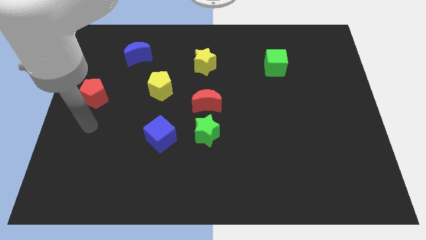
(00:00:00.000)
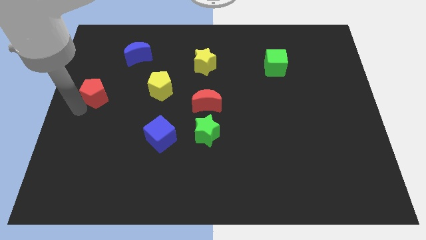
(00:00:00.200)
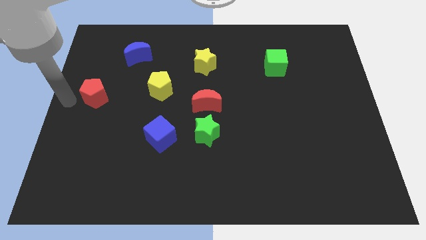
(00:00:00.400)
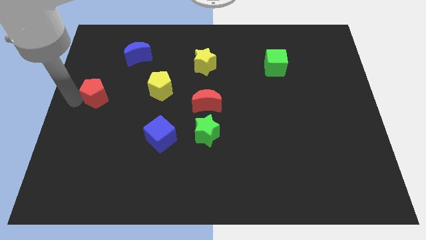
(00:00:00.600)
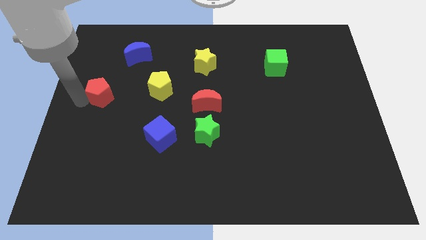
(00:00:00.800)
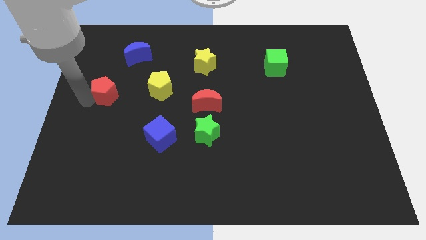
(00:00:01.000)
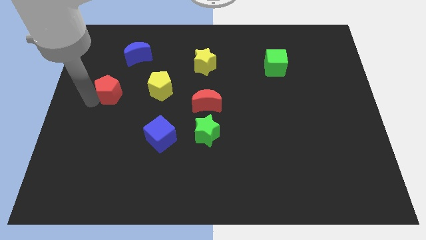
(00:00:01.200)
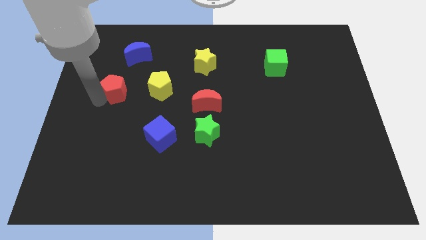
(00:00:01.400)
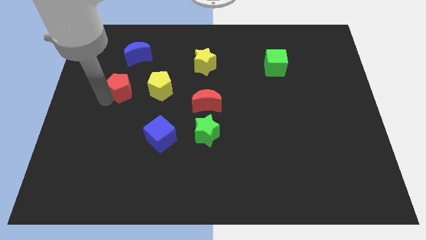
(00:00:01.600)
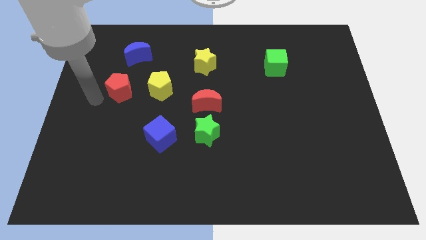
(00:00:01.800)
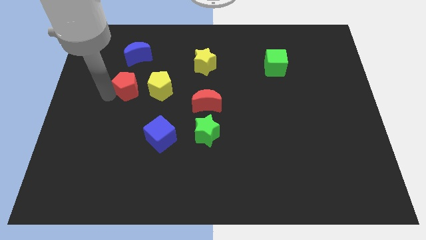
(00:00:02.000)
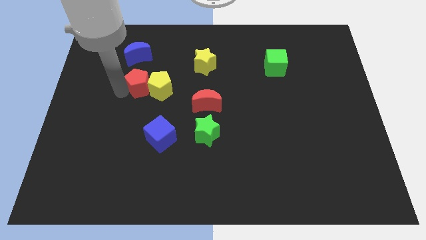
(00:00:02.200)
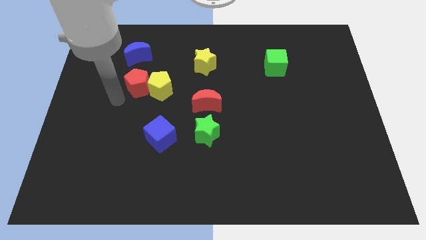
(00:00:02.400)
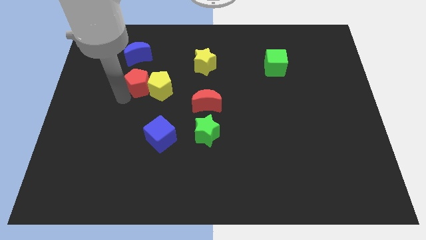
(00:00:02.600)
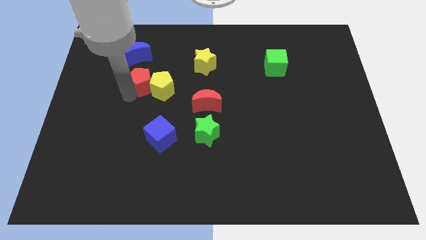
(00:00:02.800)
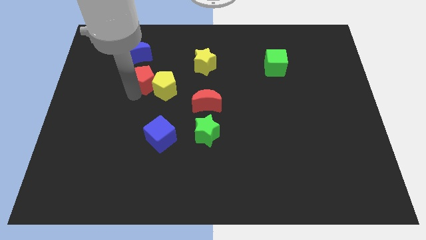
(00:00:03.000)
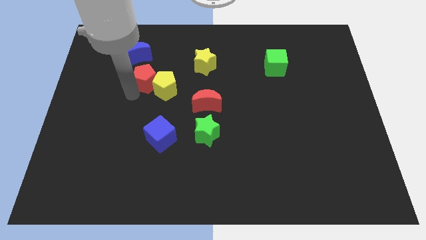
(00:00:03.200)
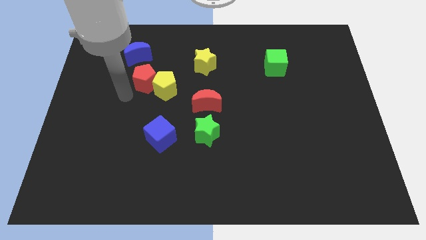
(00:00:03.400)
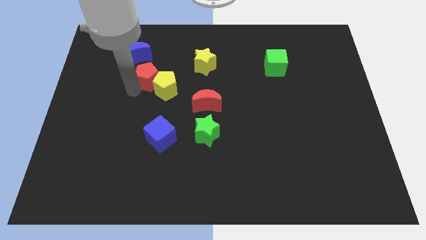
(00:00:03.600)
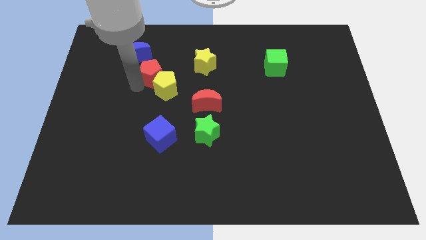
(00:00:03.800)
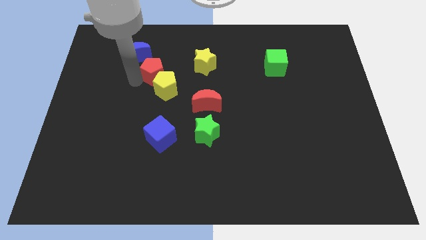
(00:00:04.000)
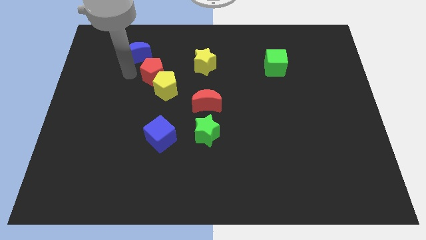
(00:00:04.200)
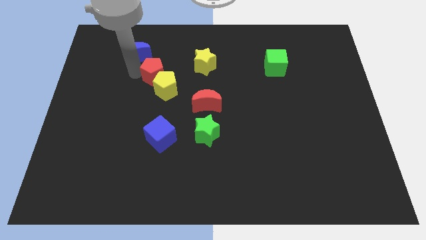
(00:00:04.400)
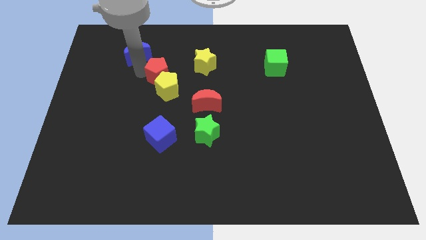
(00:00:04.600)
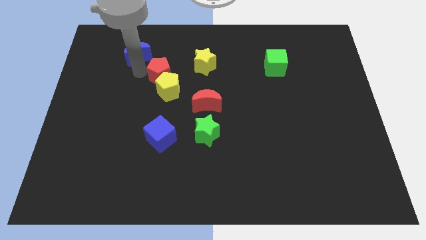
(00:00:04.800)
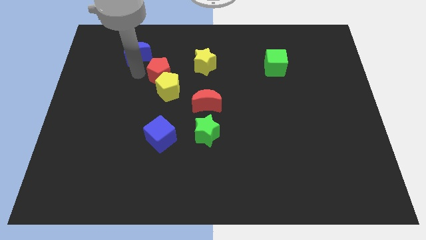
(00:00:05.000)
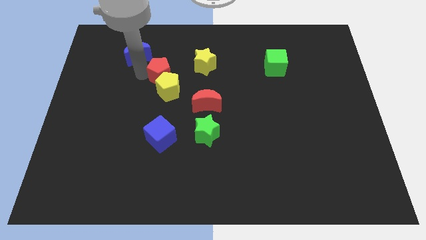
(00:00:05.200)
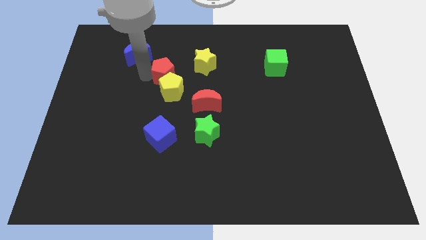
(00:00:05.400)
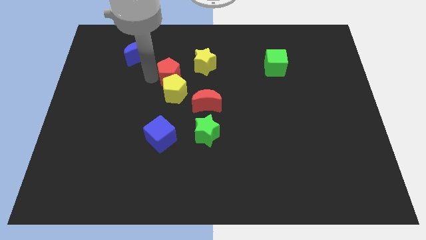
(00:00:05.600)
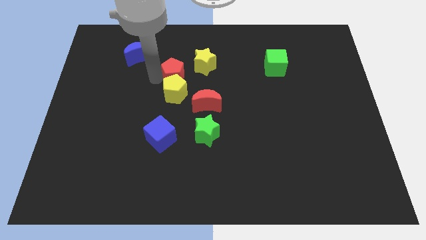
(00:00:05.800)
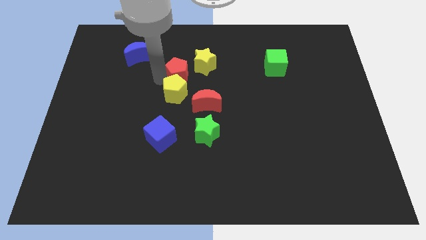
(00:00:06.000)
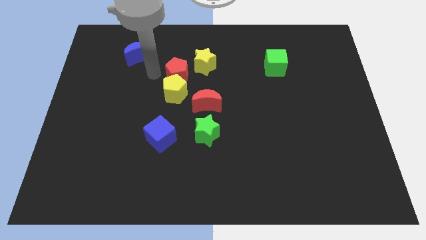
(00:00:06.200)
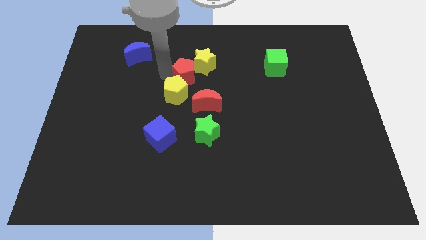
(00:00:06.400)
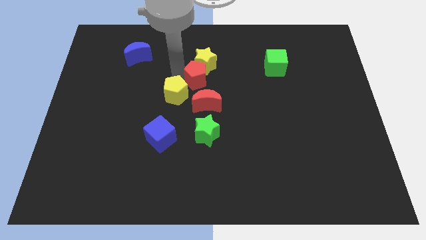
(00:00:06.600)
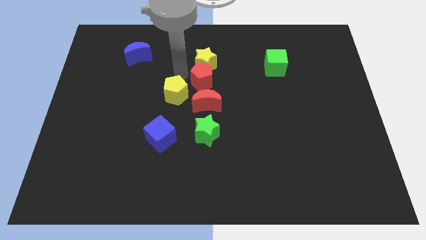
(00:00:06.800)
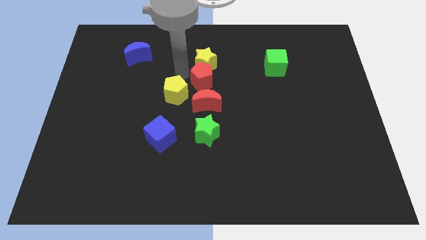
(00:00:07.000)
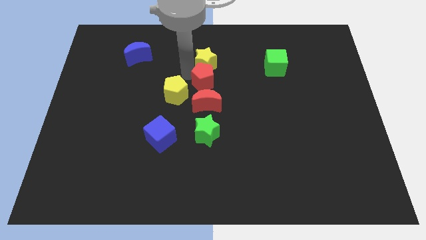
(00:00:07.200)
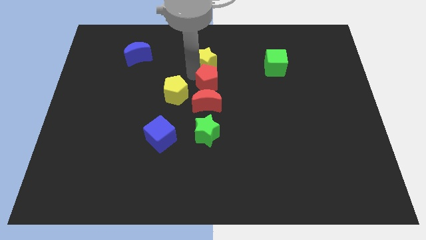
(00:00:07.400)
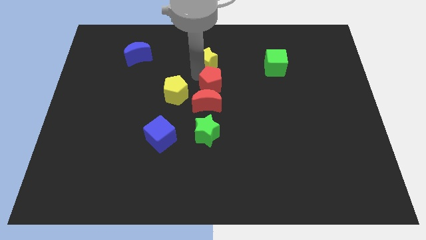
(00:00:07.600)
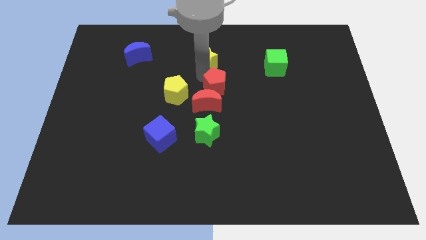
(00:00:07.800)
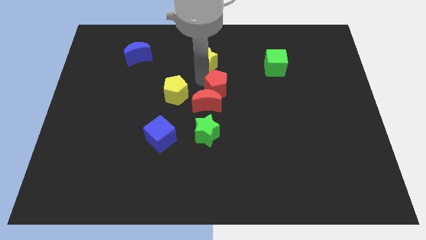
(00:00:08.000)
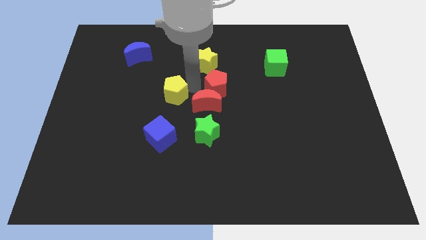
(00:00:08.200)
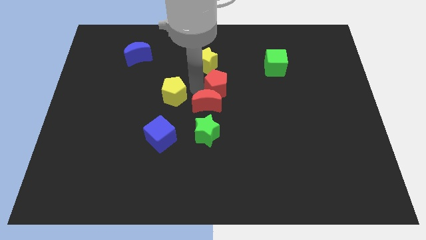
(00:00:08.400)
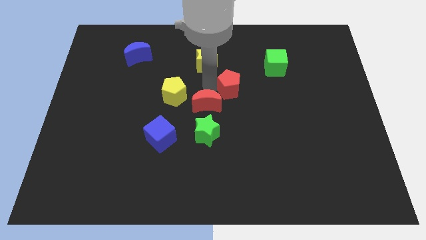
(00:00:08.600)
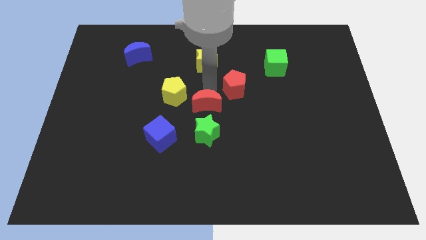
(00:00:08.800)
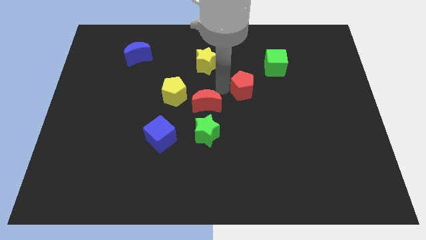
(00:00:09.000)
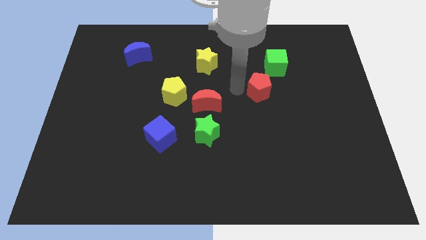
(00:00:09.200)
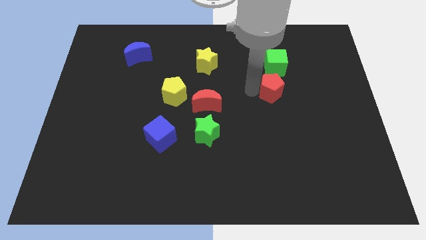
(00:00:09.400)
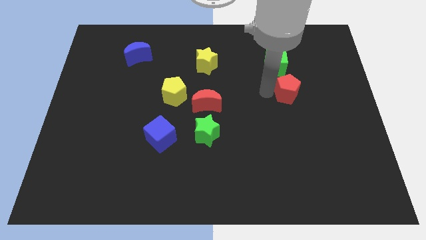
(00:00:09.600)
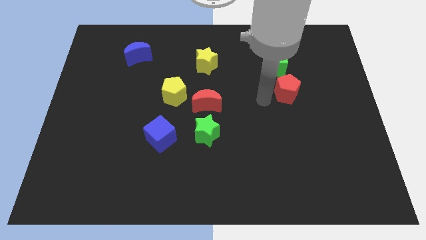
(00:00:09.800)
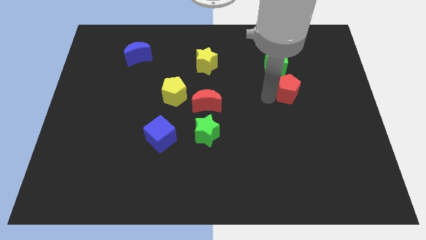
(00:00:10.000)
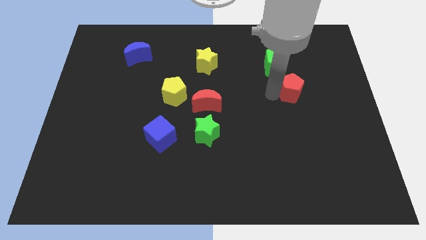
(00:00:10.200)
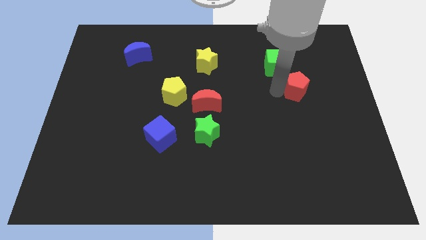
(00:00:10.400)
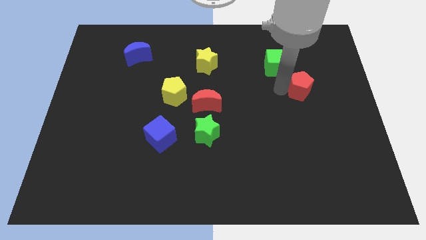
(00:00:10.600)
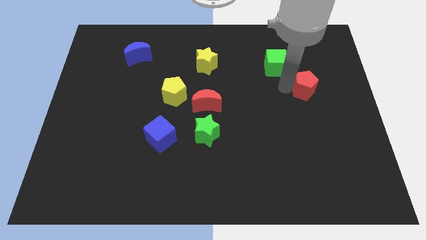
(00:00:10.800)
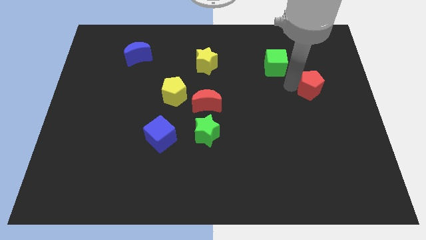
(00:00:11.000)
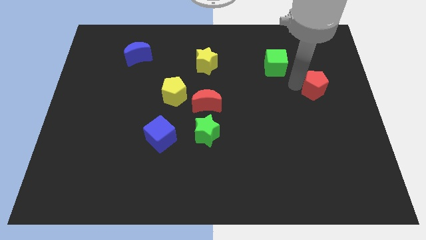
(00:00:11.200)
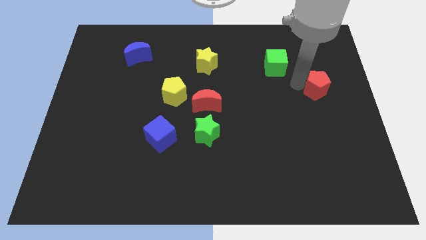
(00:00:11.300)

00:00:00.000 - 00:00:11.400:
put the red pentagon to the center right

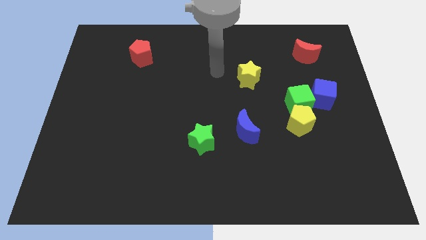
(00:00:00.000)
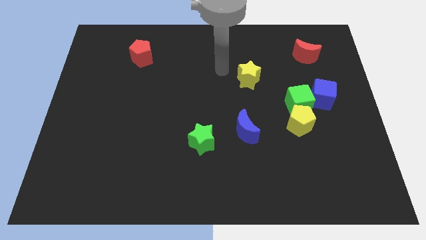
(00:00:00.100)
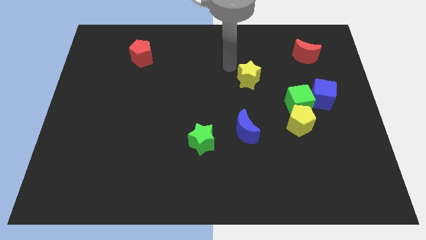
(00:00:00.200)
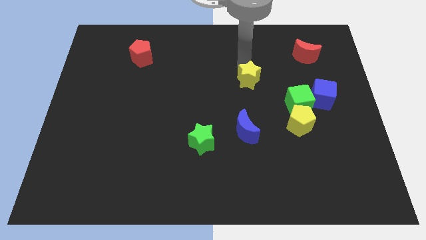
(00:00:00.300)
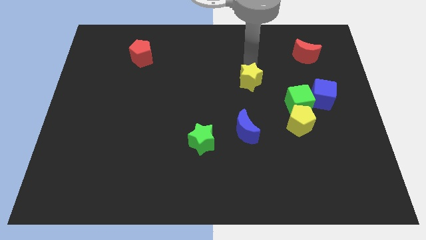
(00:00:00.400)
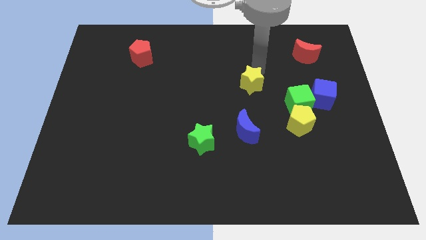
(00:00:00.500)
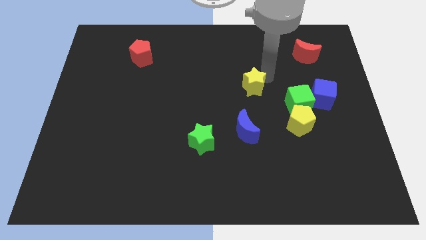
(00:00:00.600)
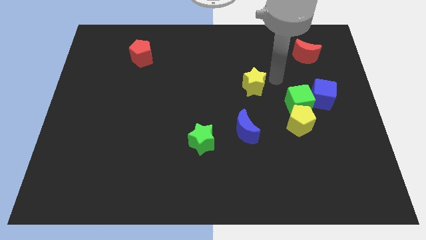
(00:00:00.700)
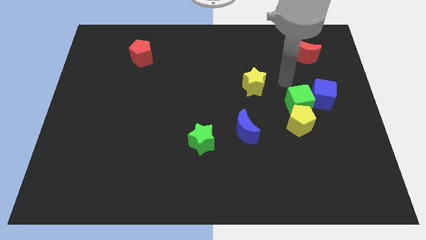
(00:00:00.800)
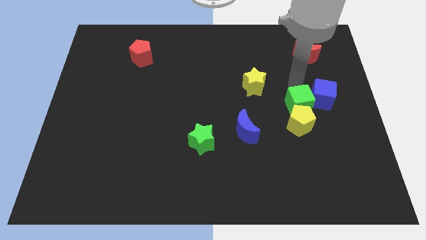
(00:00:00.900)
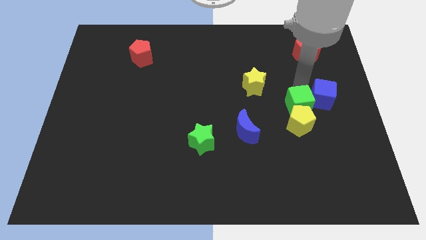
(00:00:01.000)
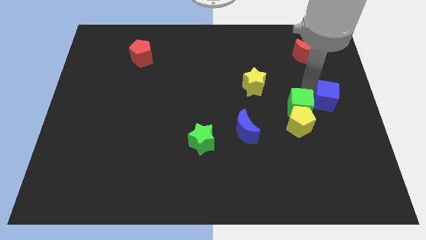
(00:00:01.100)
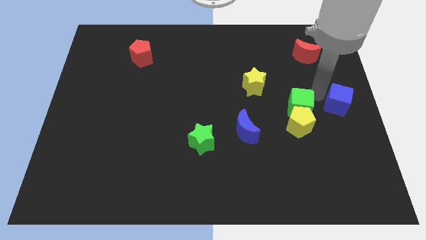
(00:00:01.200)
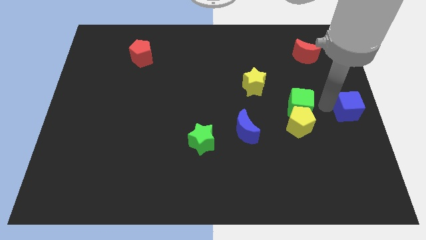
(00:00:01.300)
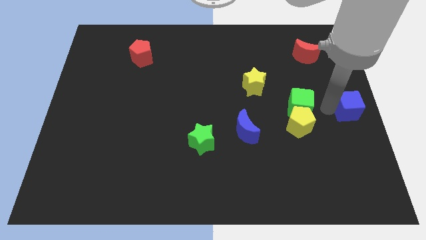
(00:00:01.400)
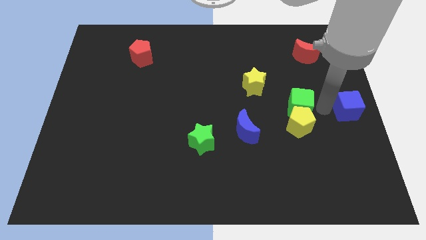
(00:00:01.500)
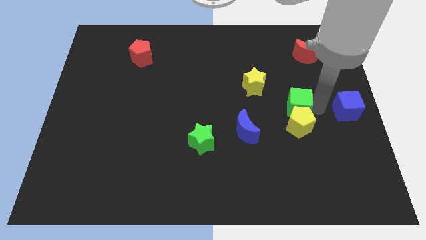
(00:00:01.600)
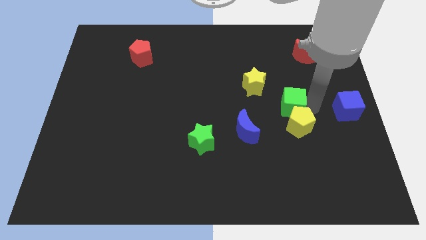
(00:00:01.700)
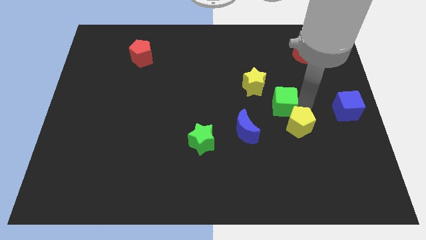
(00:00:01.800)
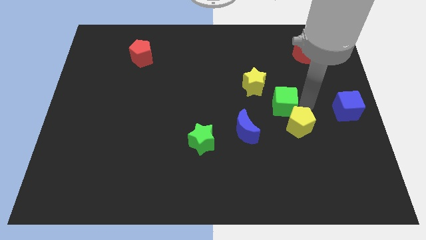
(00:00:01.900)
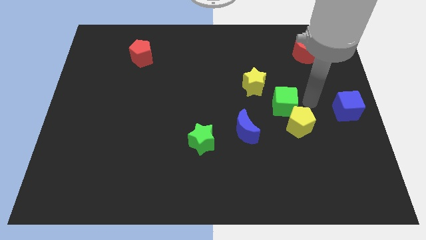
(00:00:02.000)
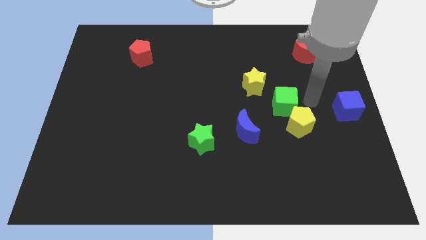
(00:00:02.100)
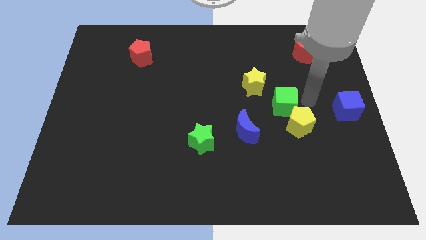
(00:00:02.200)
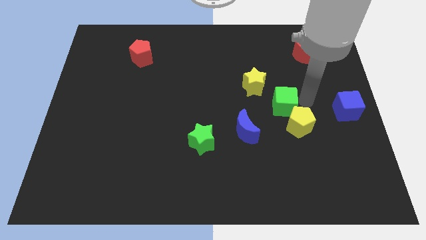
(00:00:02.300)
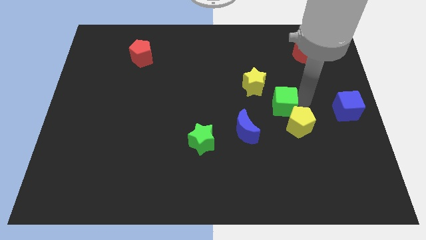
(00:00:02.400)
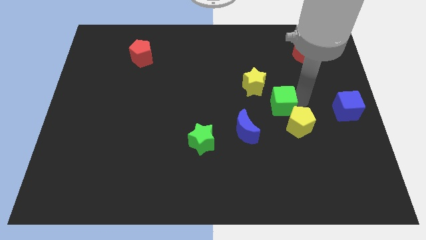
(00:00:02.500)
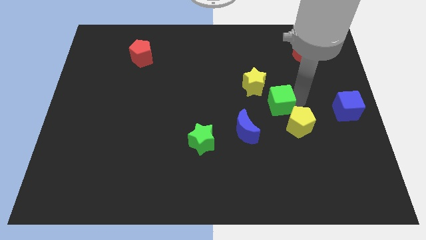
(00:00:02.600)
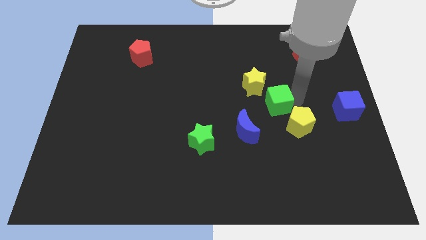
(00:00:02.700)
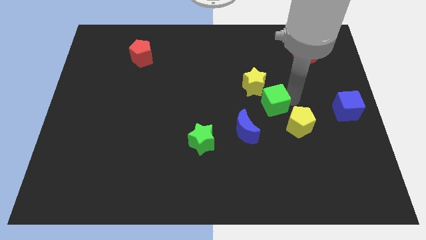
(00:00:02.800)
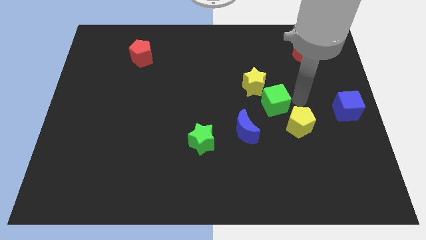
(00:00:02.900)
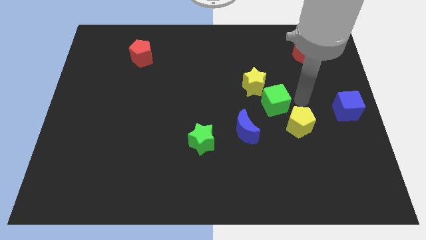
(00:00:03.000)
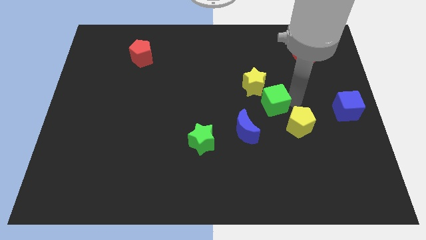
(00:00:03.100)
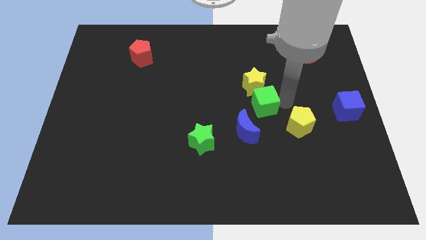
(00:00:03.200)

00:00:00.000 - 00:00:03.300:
slide the green cube to the middle of the board
